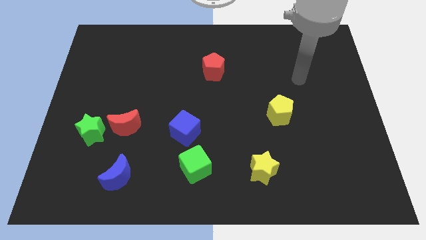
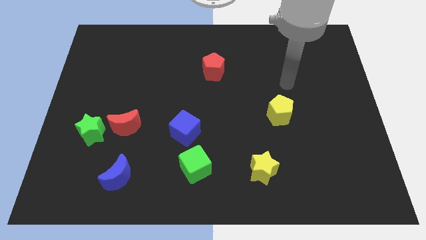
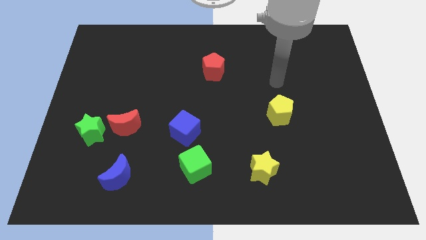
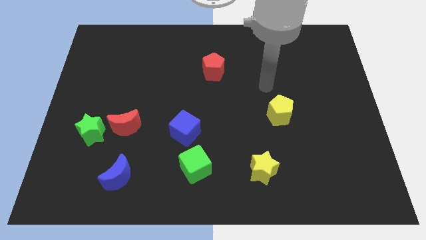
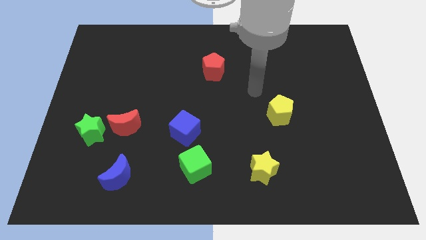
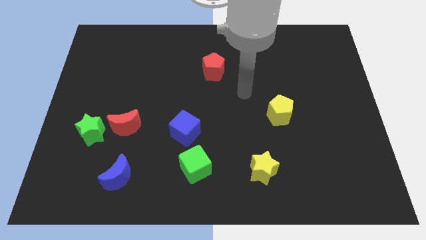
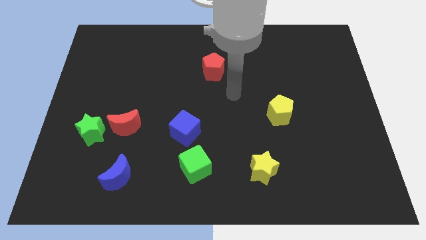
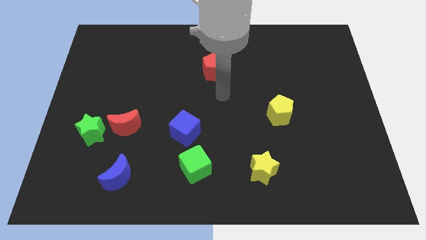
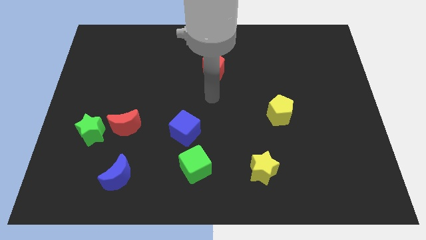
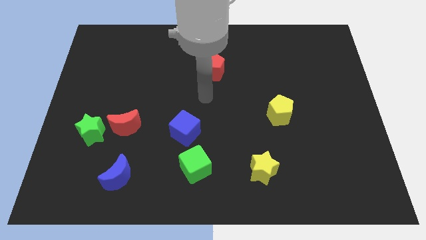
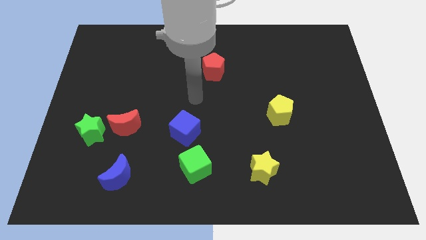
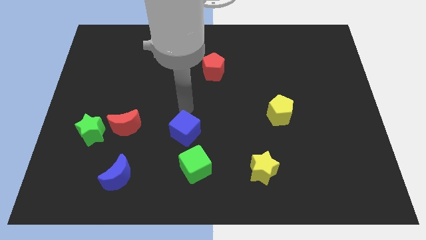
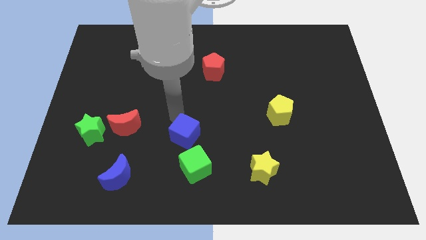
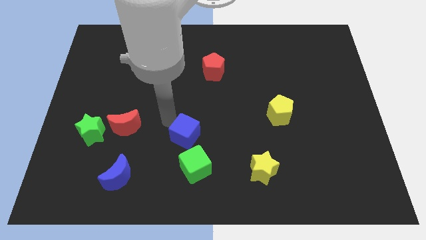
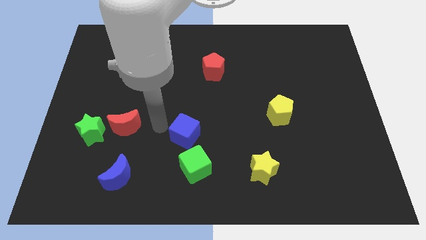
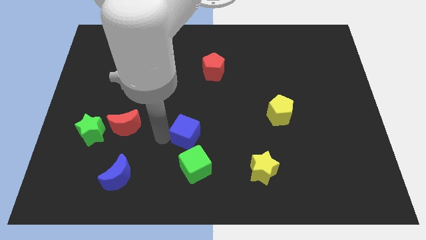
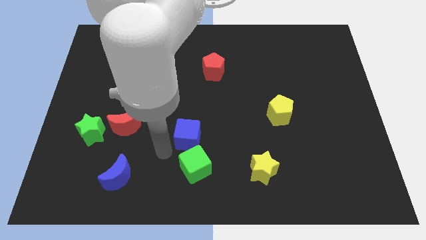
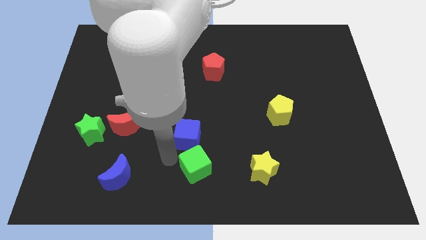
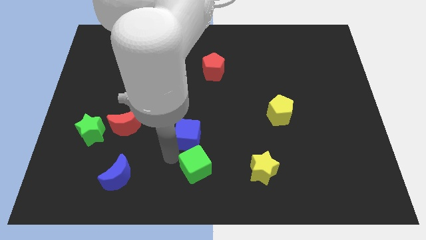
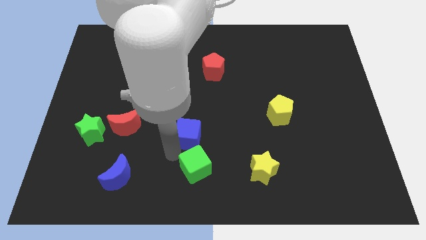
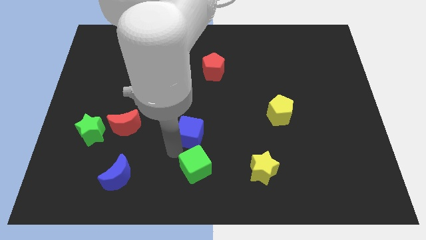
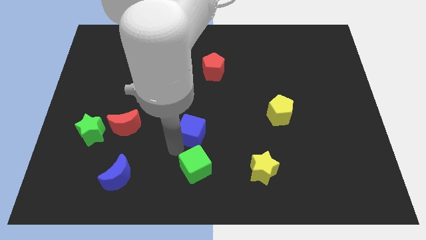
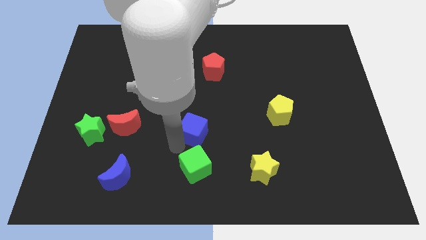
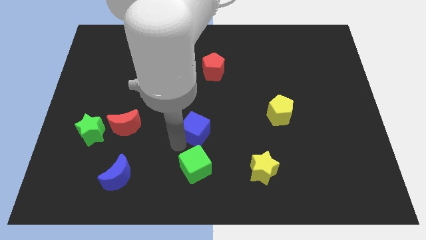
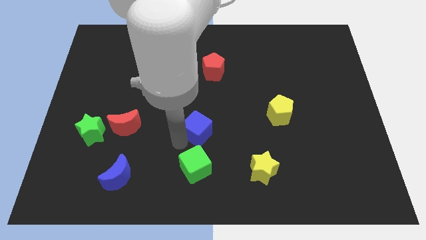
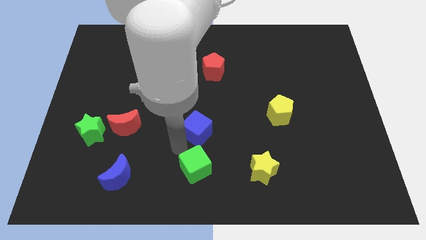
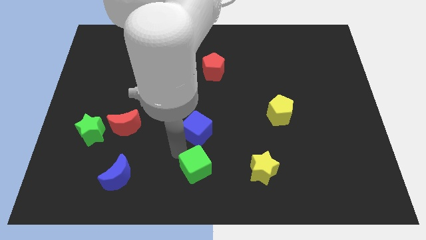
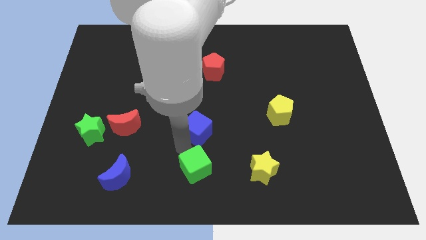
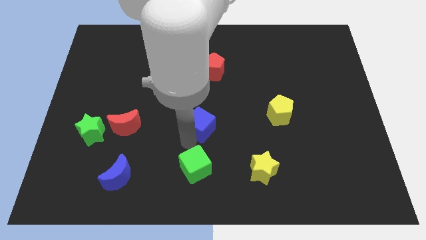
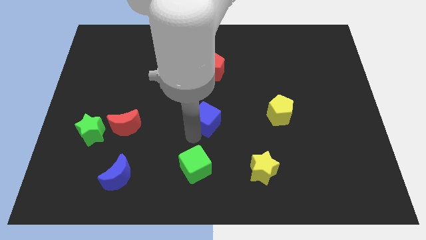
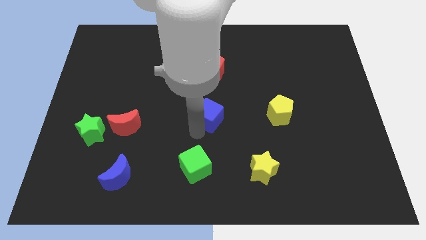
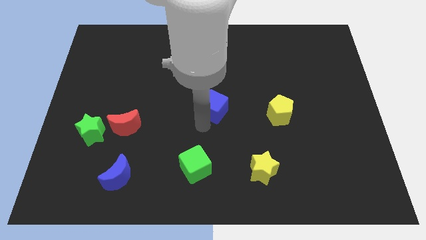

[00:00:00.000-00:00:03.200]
slightly push the blue cube upwards and then to the right

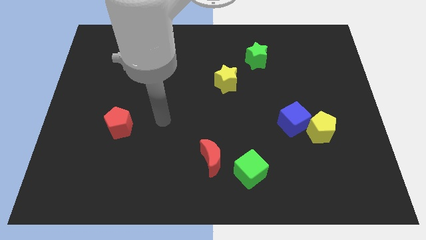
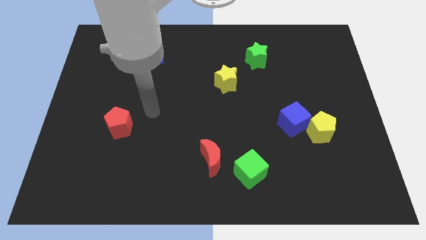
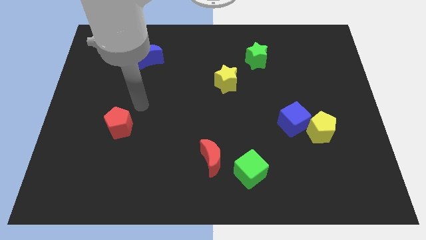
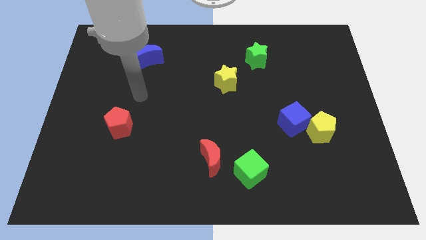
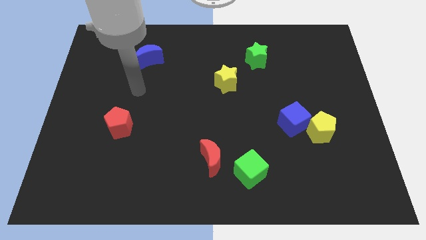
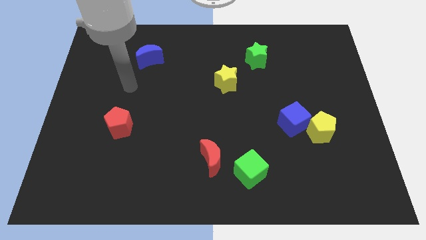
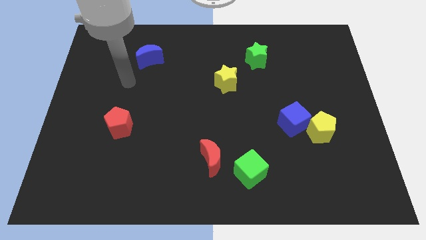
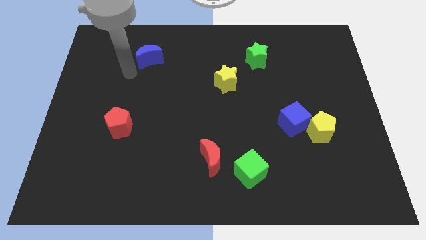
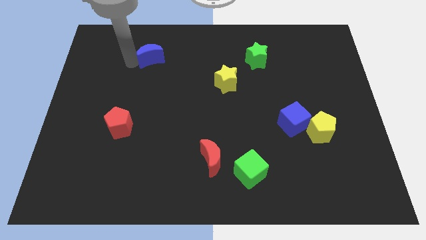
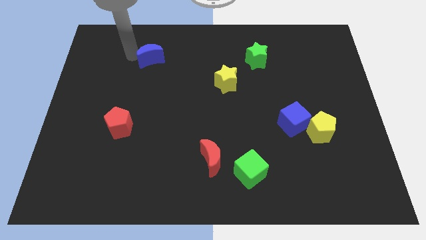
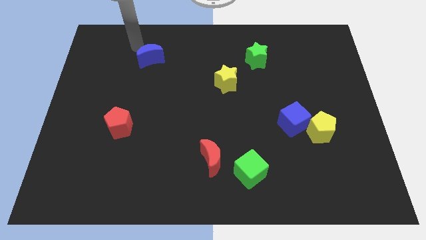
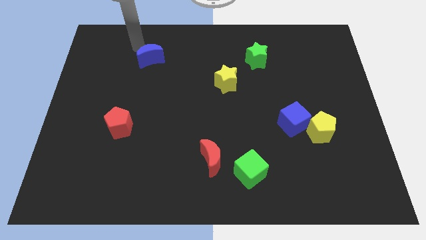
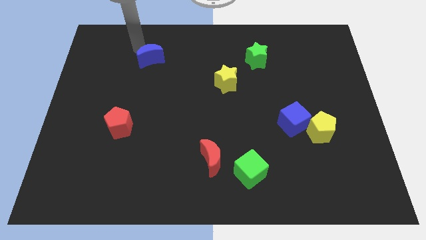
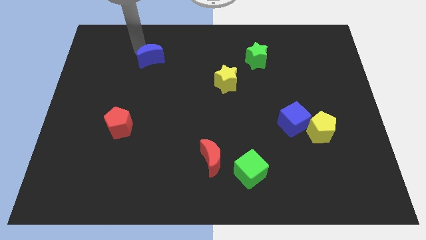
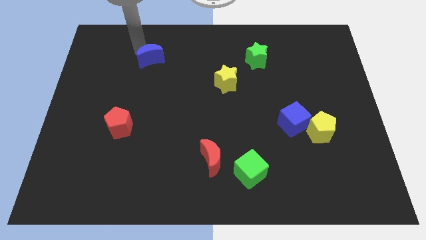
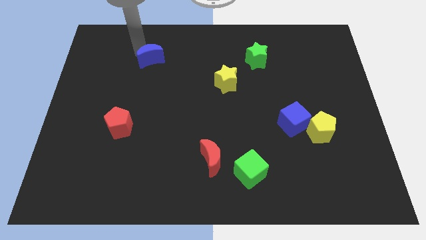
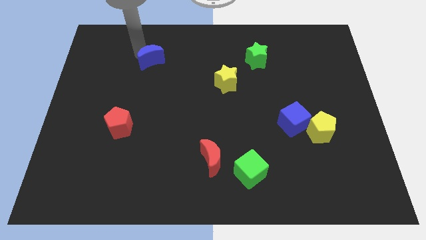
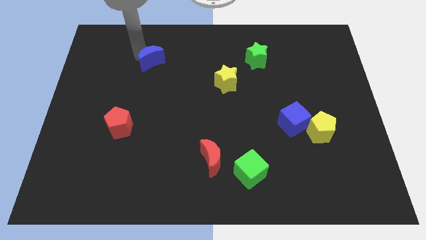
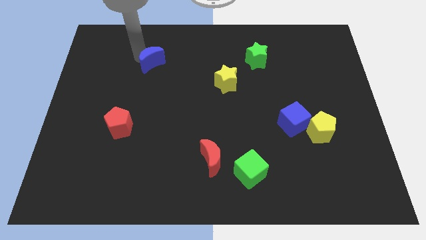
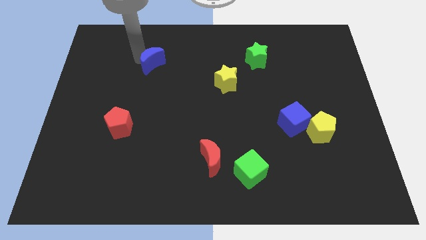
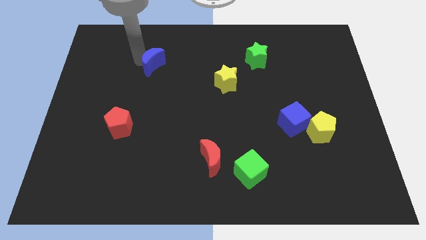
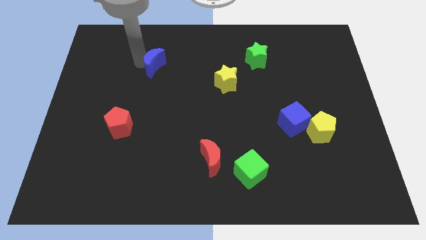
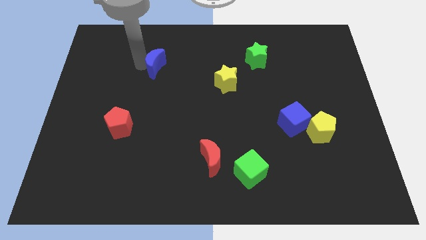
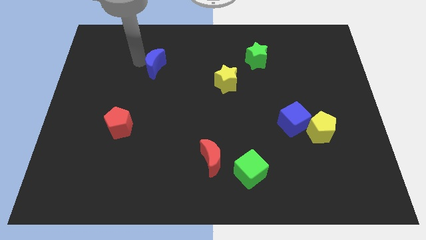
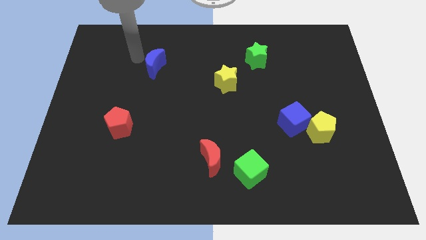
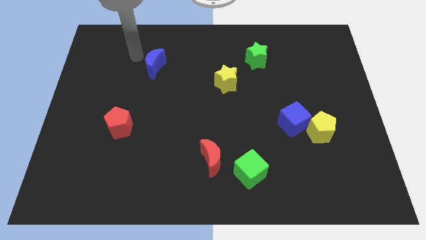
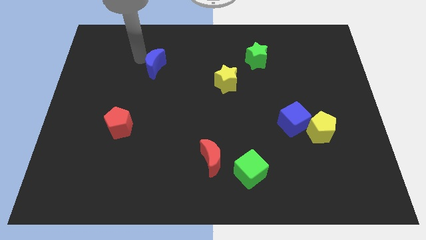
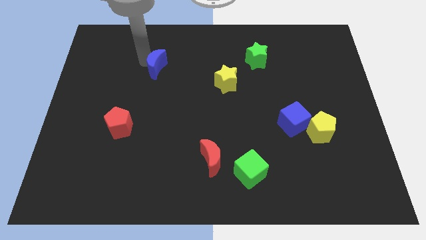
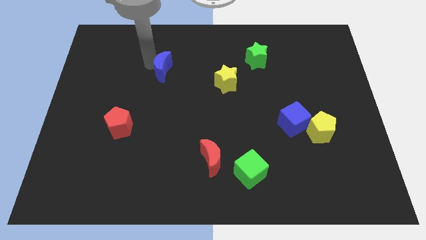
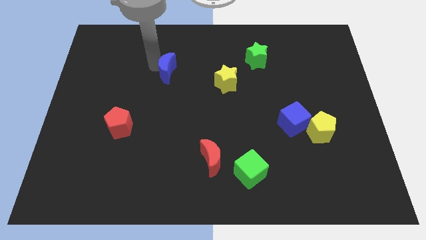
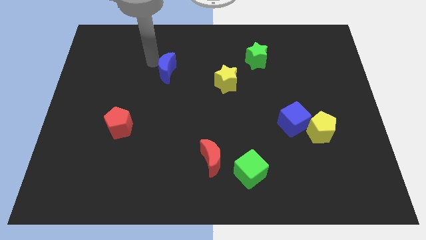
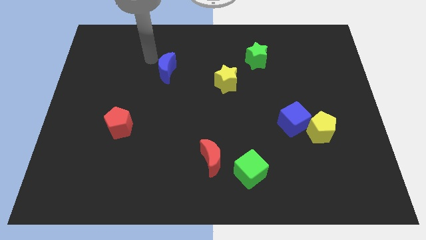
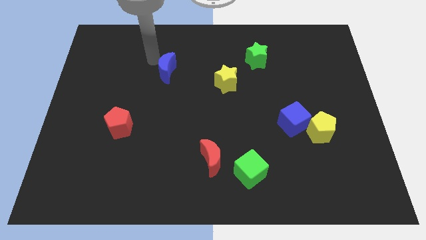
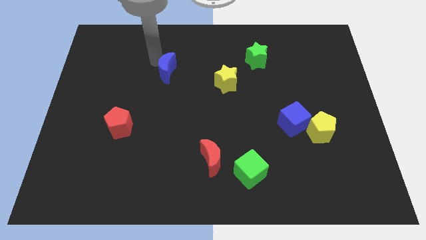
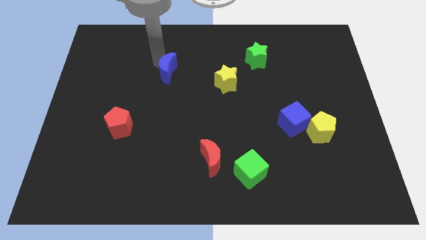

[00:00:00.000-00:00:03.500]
slightly move the blue moon downwards and then right

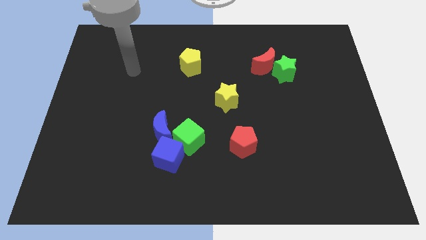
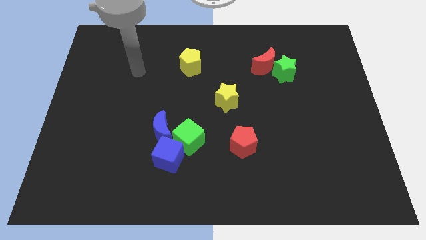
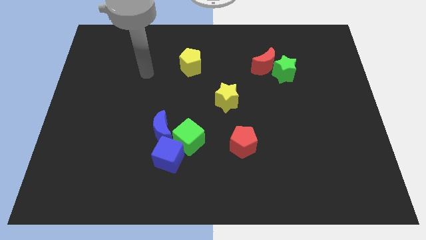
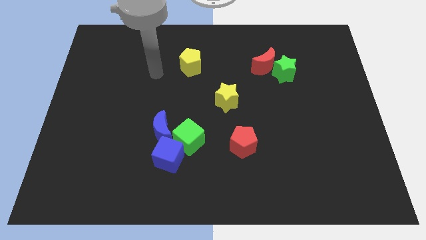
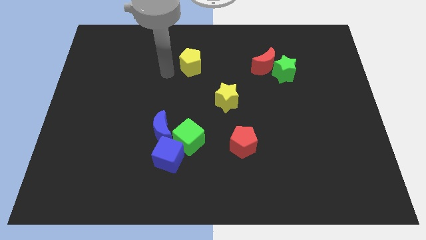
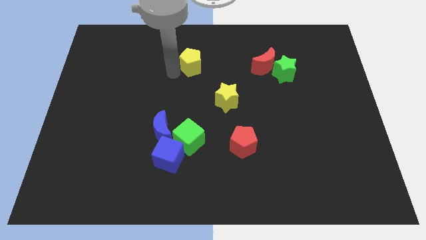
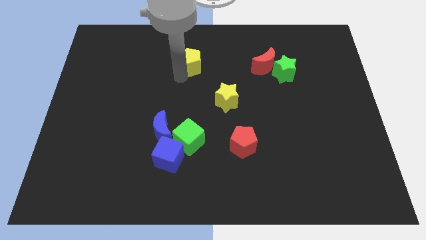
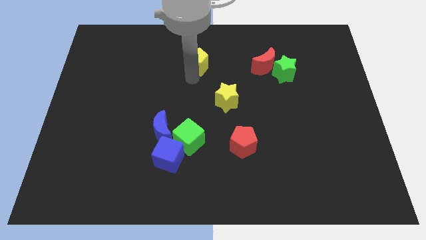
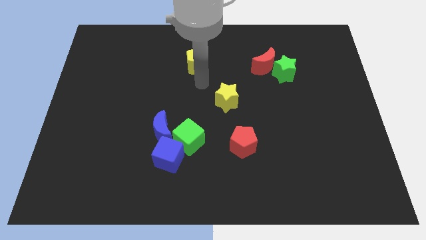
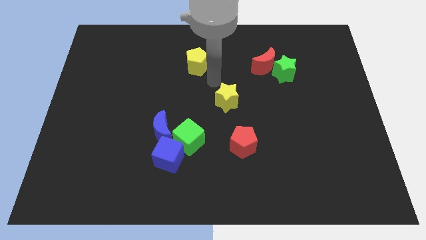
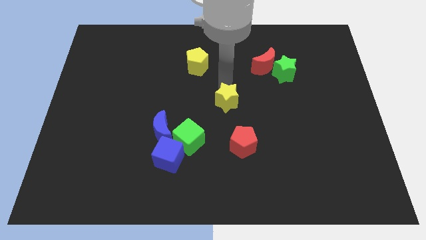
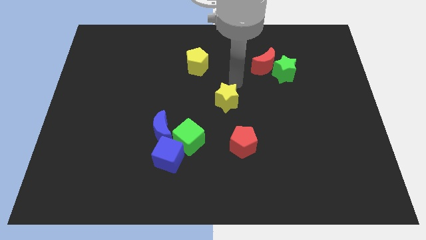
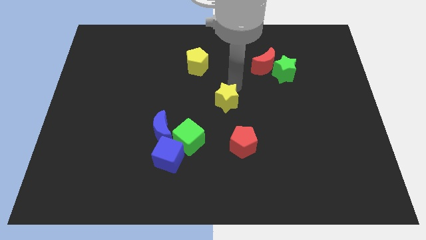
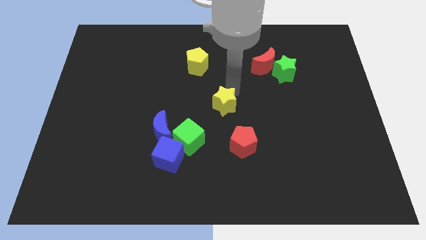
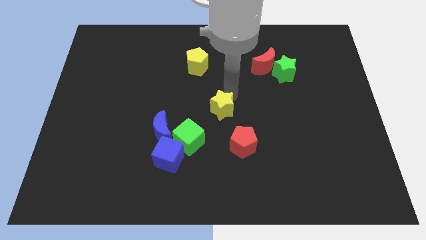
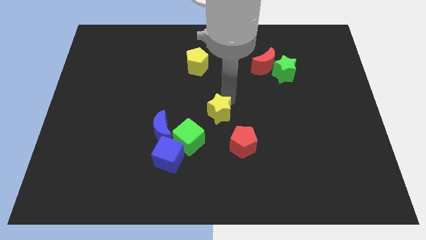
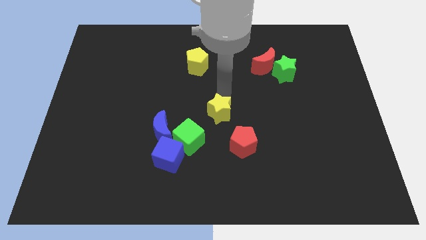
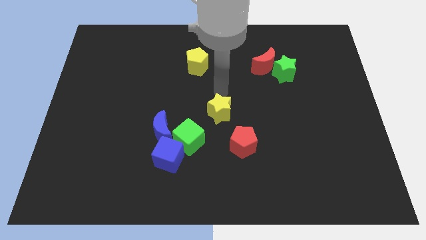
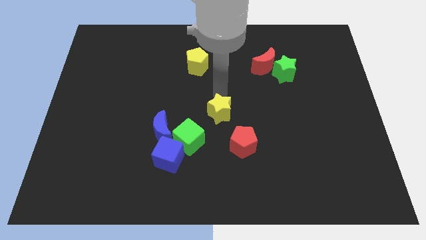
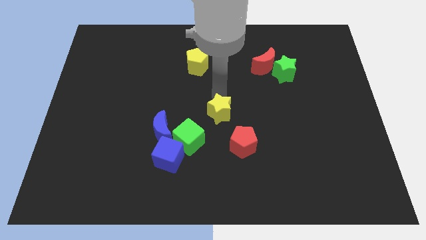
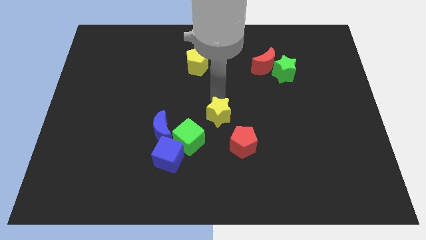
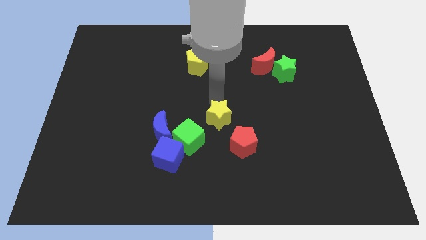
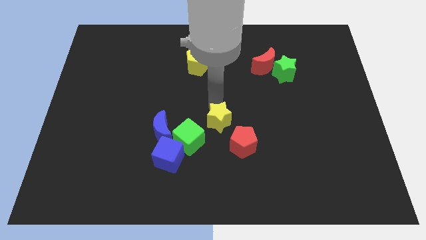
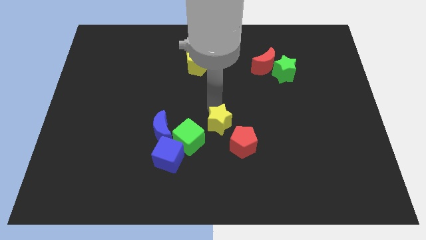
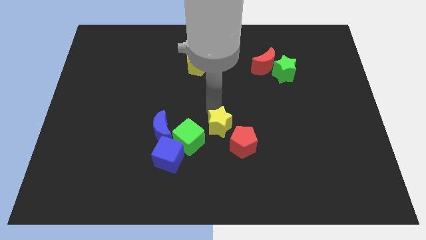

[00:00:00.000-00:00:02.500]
slightly move the yellow star downwards
